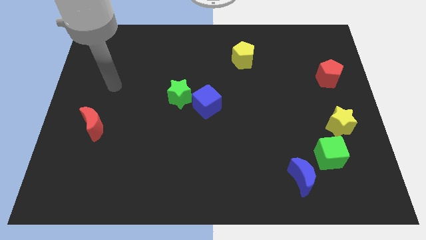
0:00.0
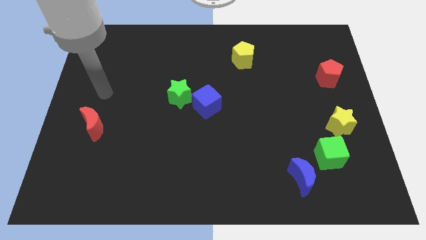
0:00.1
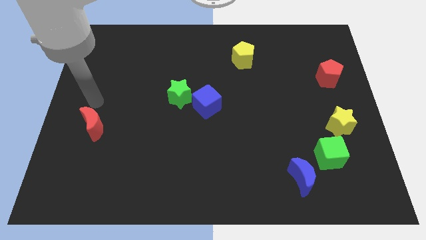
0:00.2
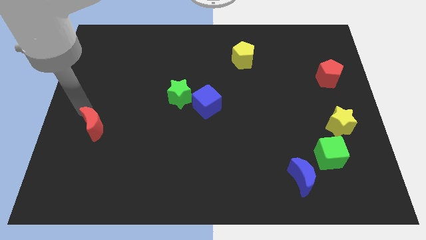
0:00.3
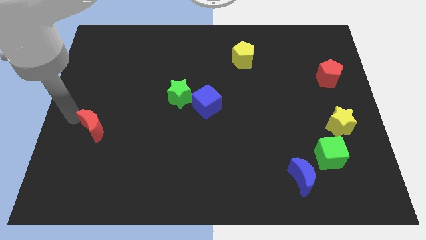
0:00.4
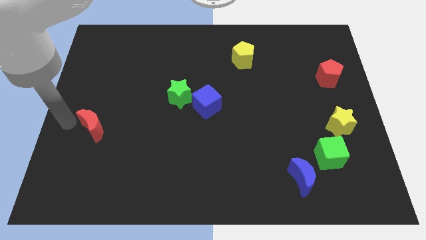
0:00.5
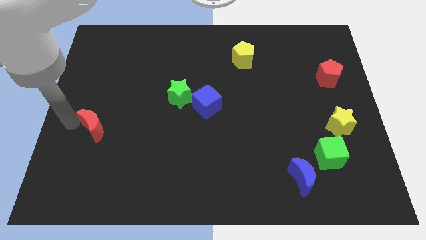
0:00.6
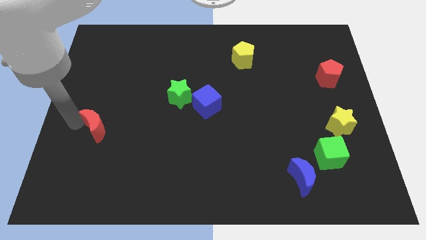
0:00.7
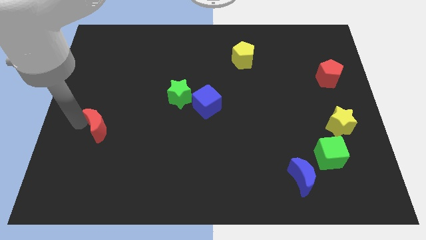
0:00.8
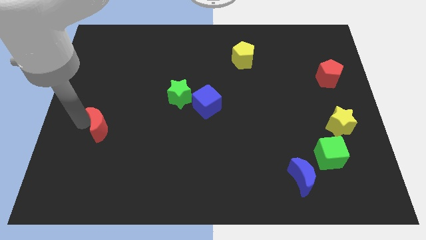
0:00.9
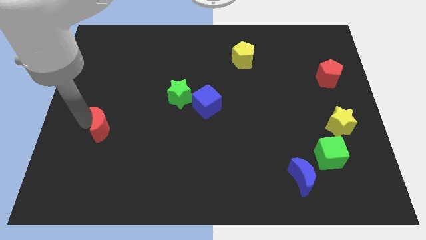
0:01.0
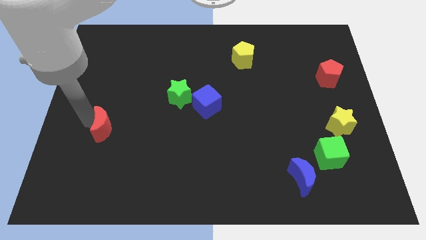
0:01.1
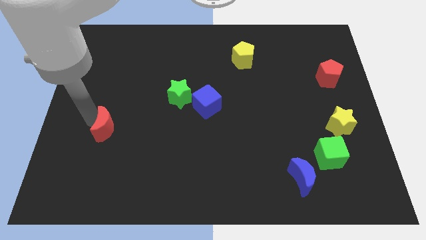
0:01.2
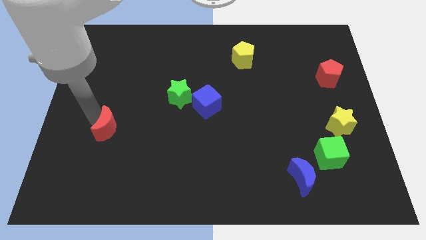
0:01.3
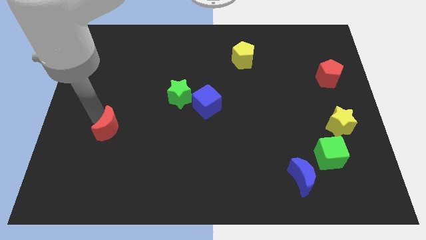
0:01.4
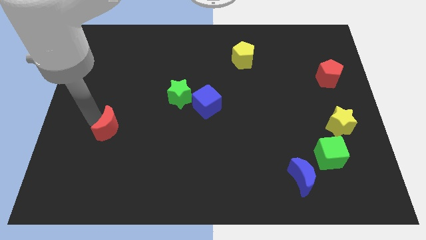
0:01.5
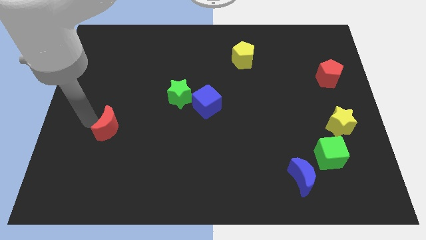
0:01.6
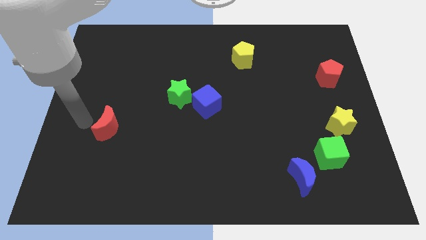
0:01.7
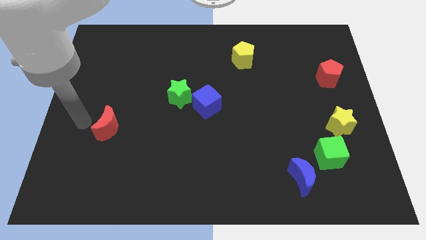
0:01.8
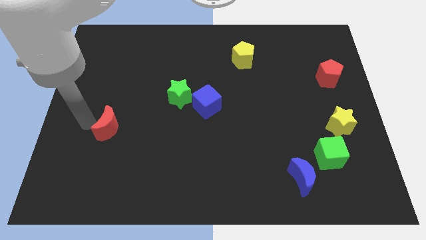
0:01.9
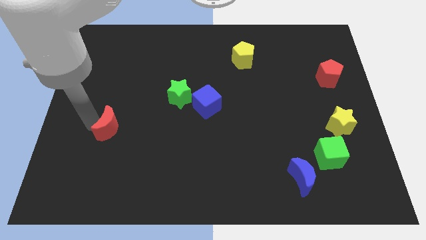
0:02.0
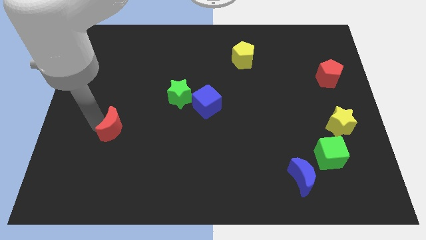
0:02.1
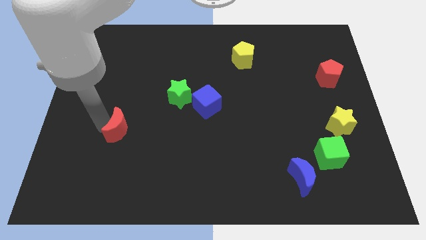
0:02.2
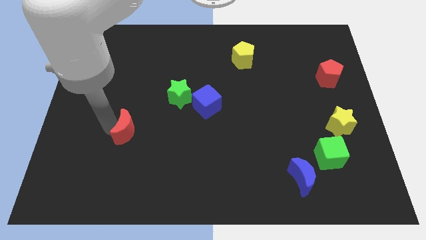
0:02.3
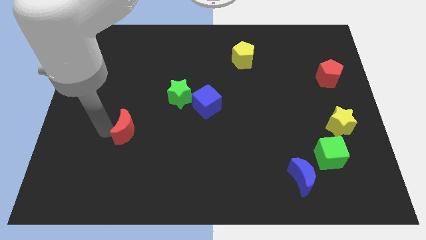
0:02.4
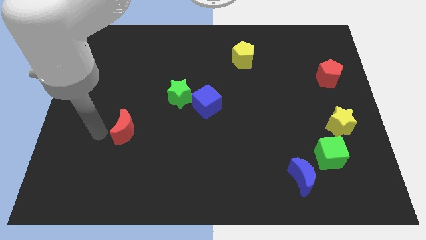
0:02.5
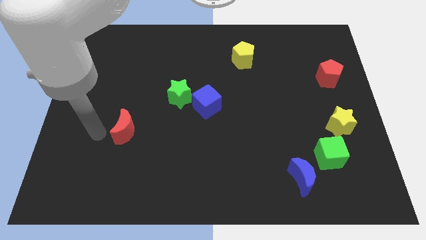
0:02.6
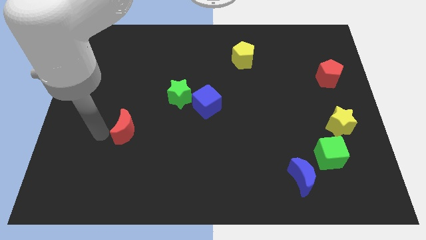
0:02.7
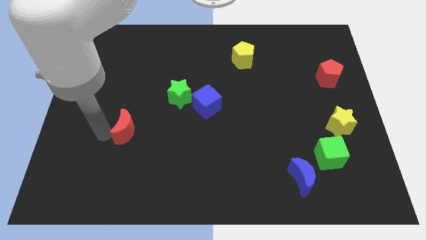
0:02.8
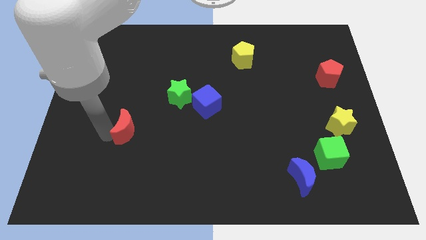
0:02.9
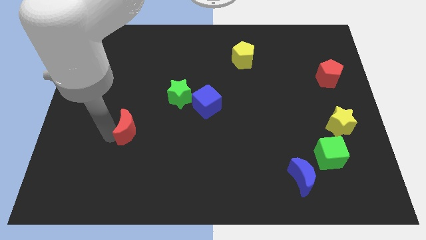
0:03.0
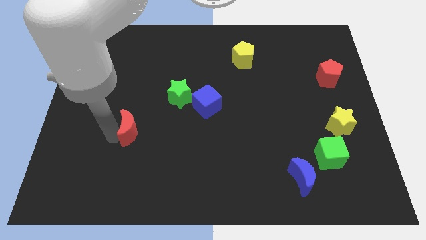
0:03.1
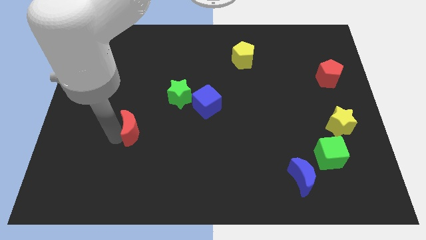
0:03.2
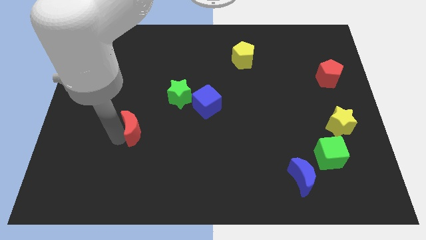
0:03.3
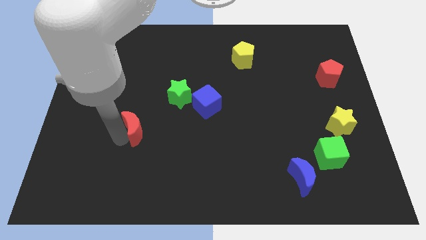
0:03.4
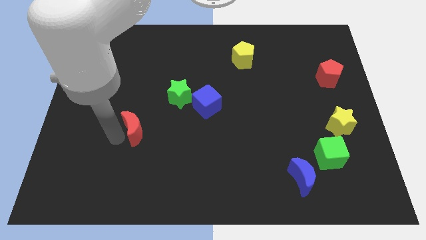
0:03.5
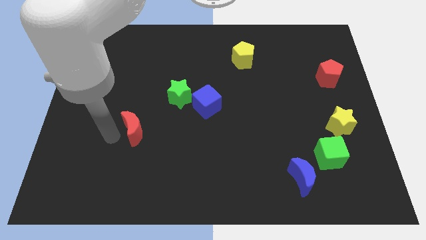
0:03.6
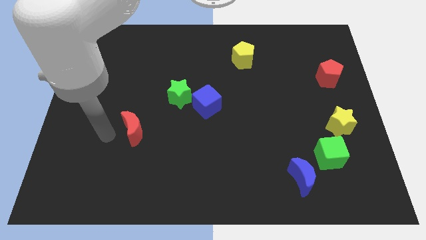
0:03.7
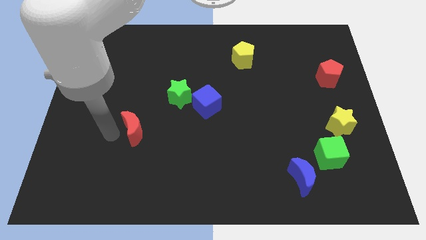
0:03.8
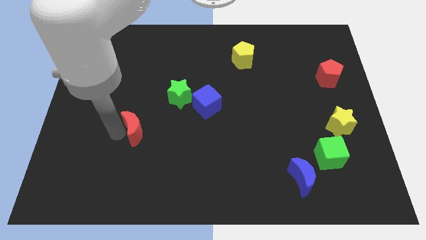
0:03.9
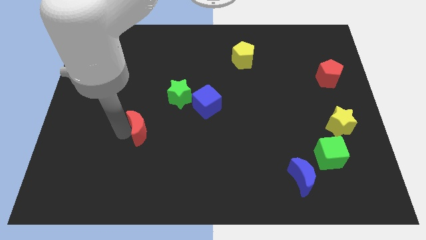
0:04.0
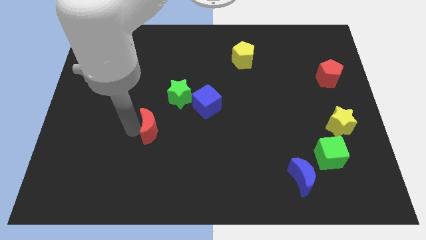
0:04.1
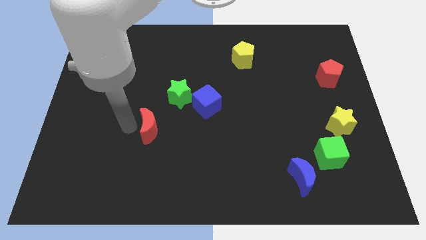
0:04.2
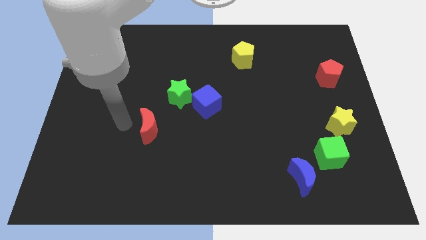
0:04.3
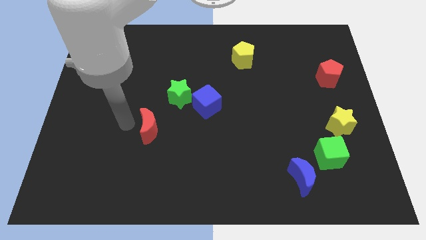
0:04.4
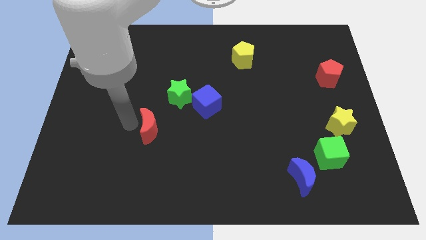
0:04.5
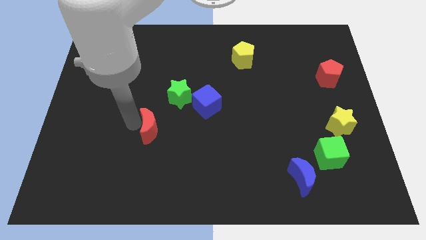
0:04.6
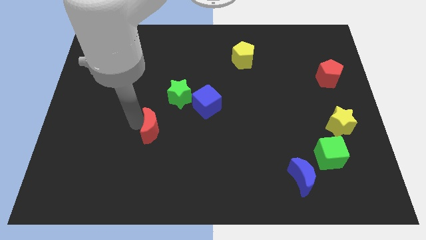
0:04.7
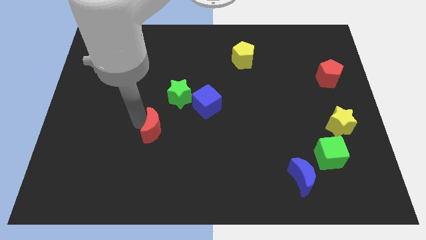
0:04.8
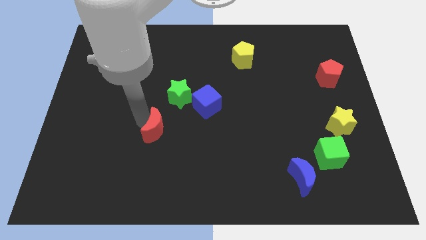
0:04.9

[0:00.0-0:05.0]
move the red moon below the green star

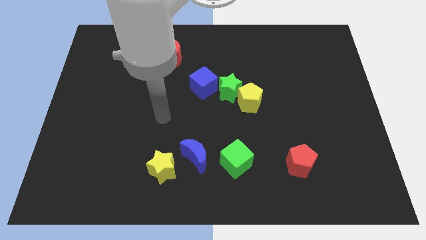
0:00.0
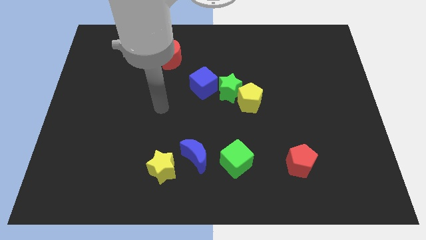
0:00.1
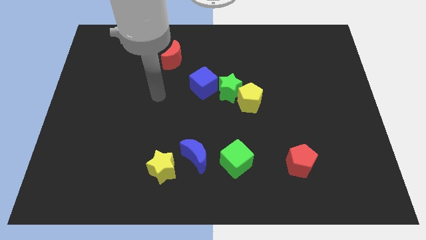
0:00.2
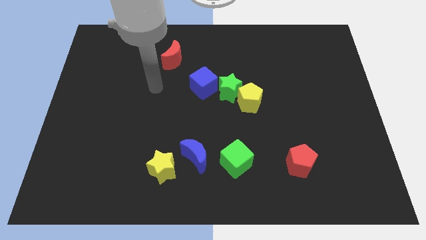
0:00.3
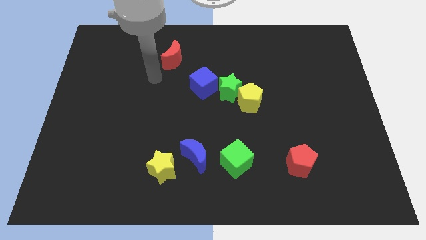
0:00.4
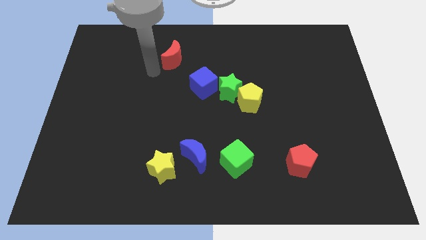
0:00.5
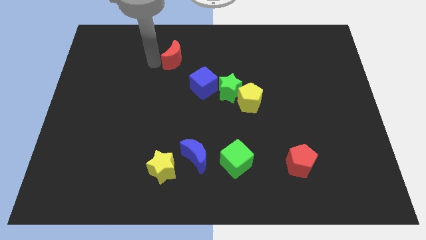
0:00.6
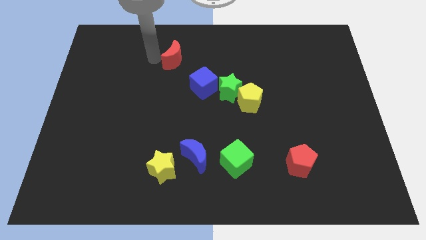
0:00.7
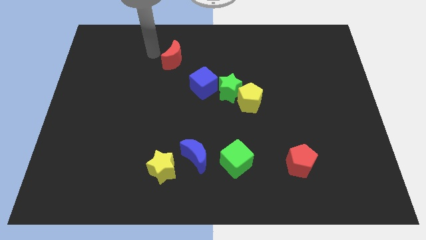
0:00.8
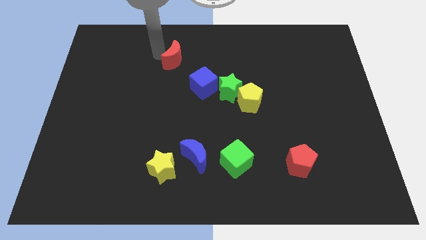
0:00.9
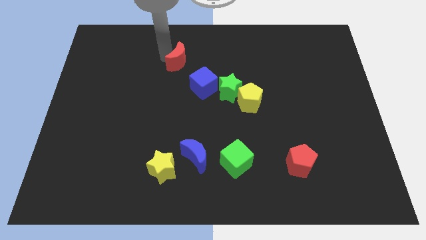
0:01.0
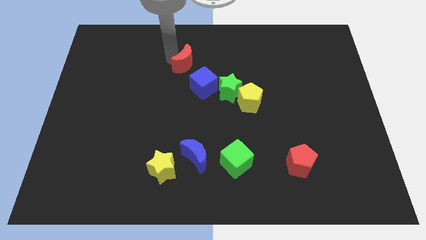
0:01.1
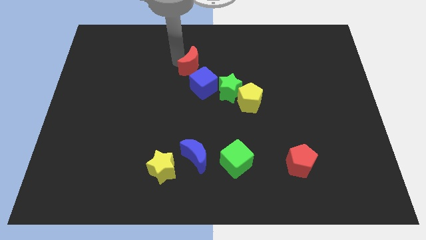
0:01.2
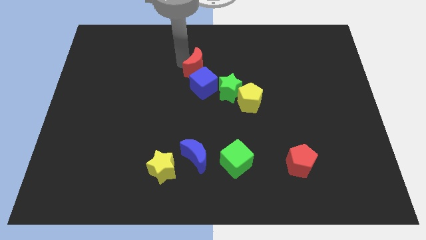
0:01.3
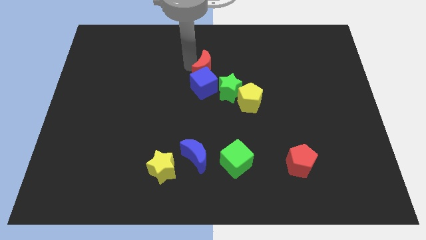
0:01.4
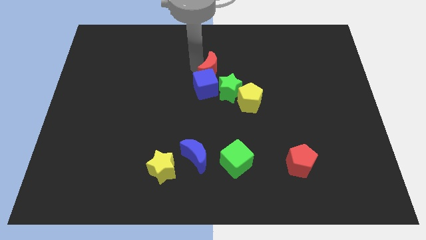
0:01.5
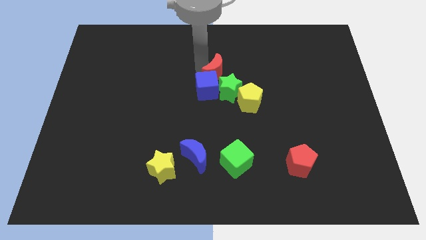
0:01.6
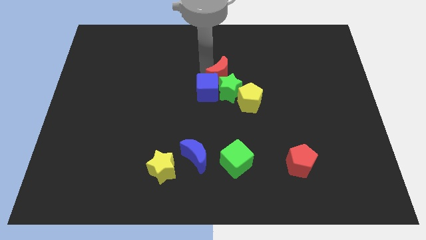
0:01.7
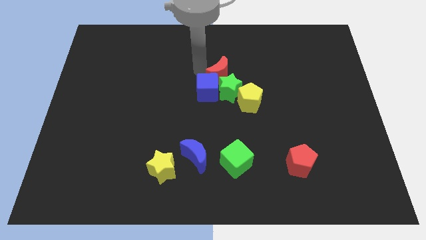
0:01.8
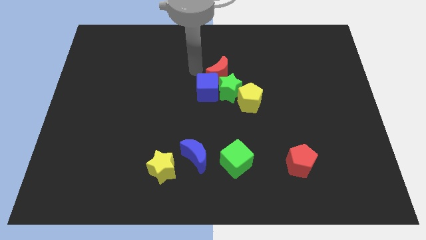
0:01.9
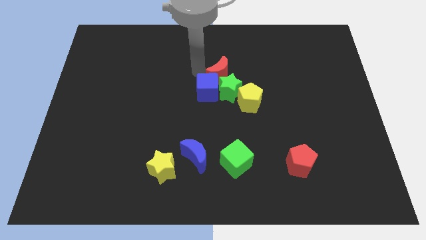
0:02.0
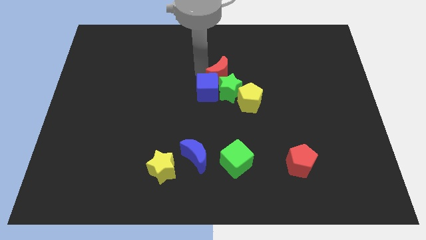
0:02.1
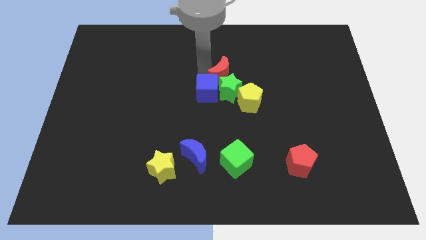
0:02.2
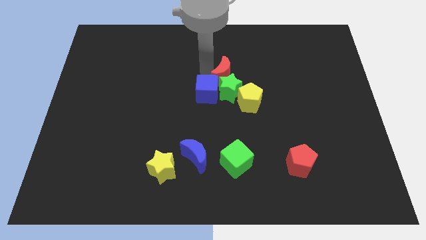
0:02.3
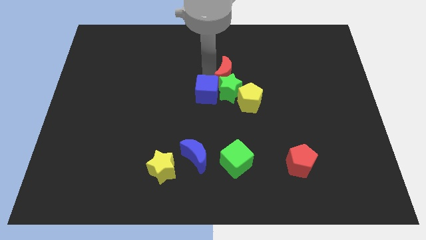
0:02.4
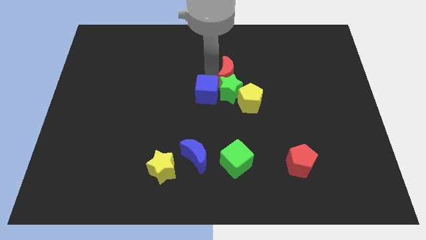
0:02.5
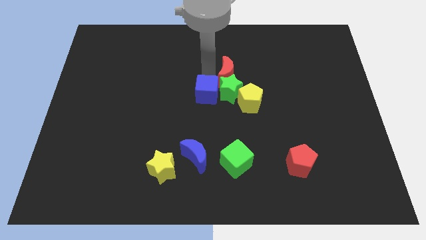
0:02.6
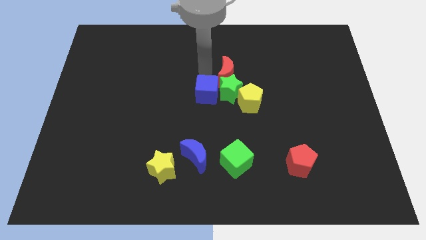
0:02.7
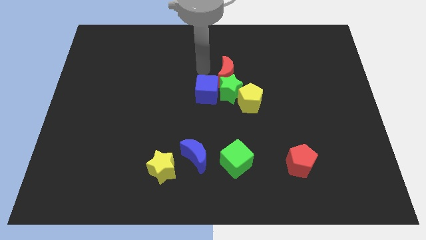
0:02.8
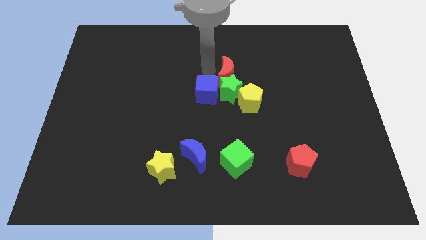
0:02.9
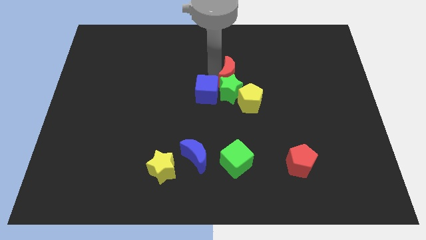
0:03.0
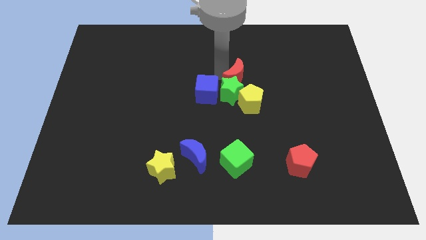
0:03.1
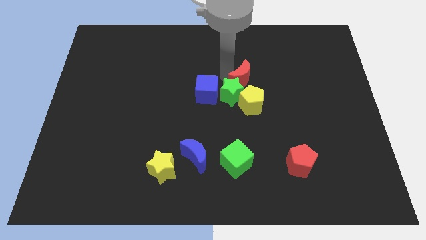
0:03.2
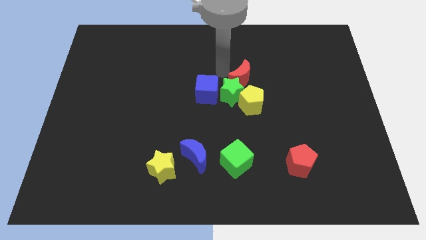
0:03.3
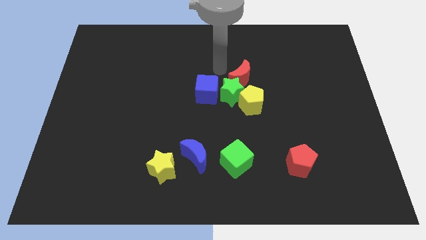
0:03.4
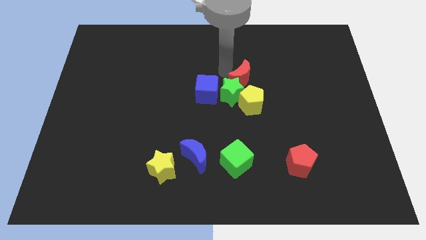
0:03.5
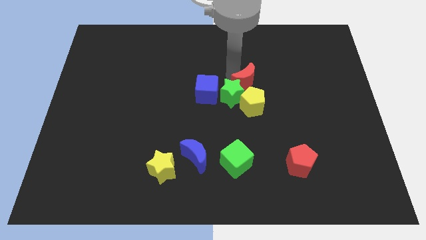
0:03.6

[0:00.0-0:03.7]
move the red moon just right of the green star
